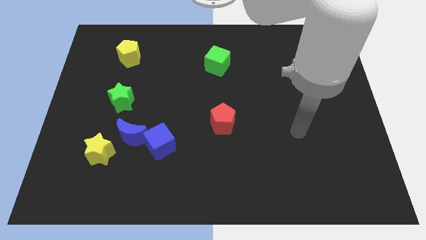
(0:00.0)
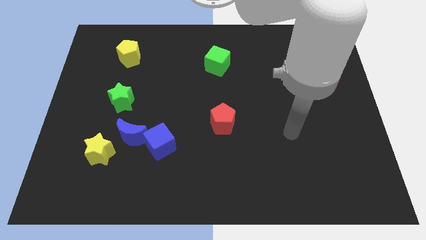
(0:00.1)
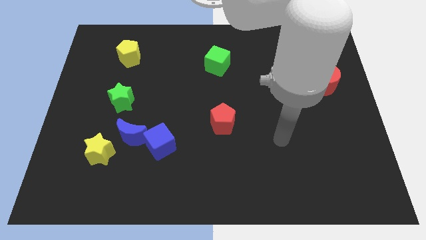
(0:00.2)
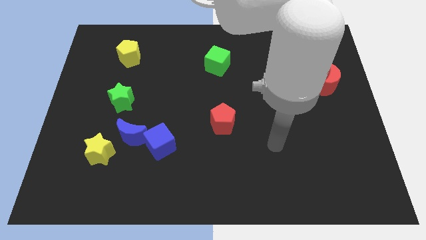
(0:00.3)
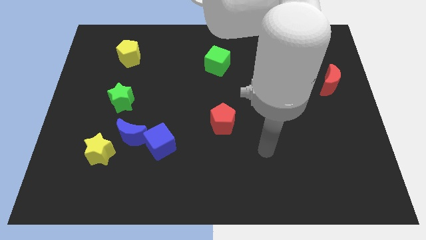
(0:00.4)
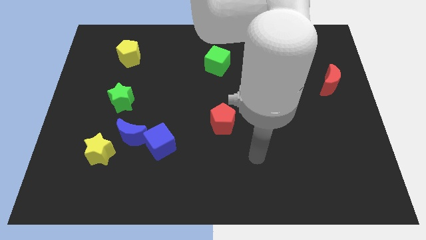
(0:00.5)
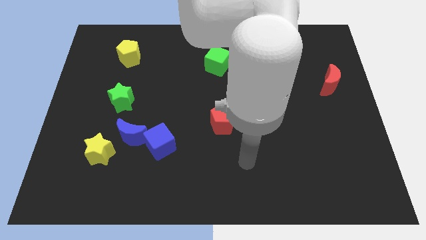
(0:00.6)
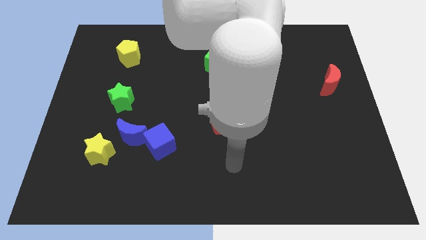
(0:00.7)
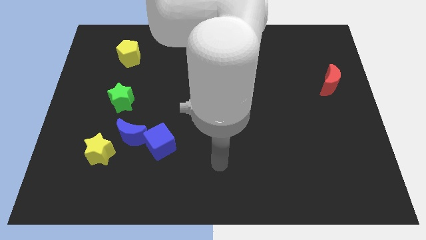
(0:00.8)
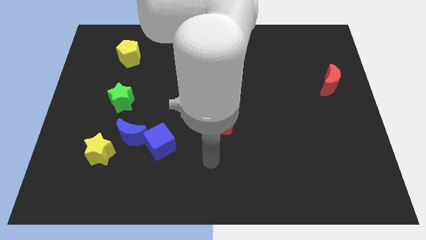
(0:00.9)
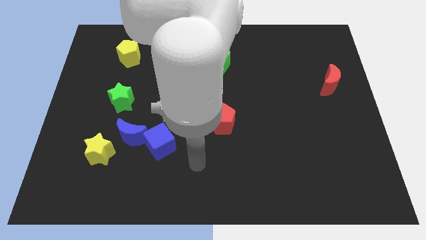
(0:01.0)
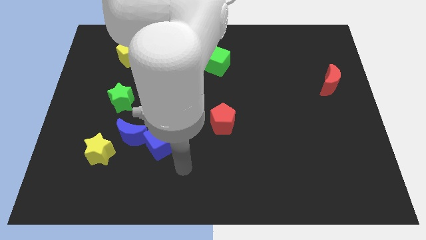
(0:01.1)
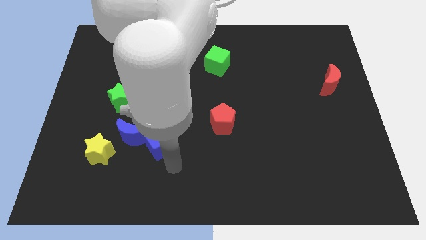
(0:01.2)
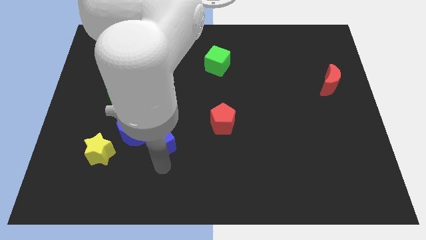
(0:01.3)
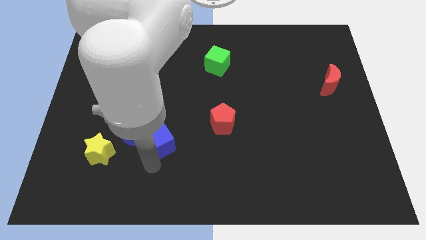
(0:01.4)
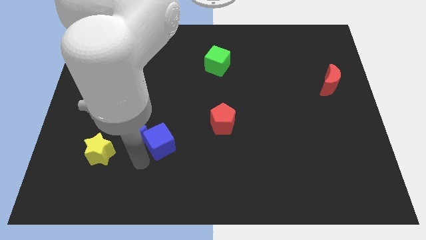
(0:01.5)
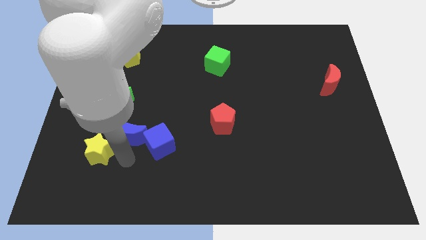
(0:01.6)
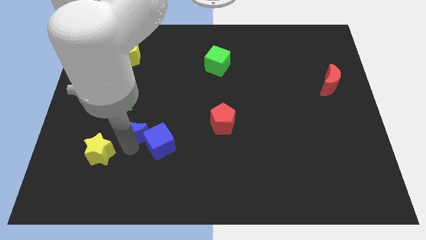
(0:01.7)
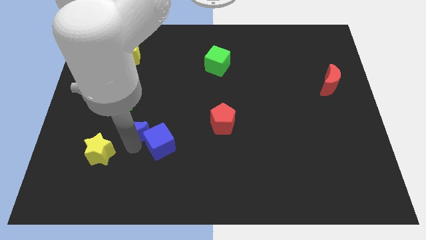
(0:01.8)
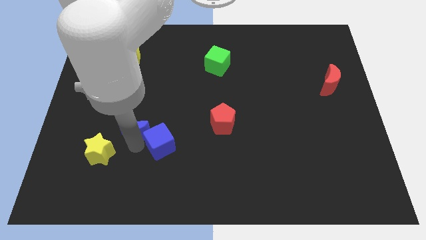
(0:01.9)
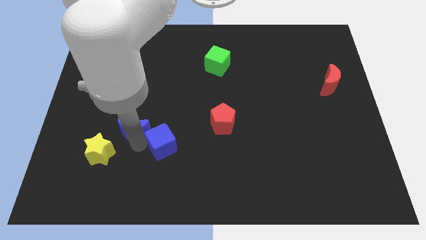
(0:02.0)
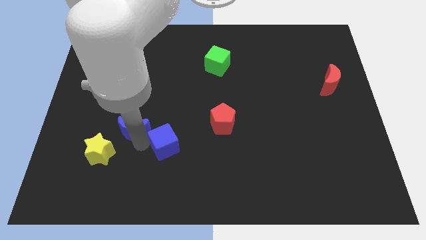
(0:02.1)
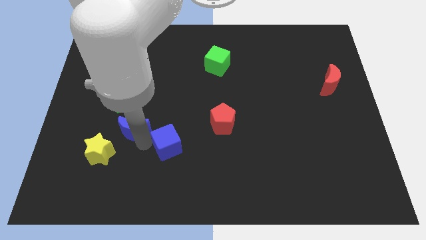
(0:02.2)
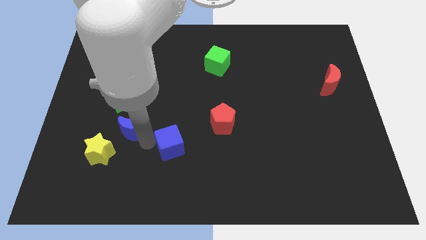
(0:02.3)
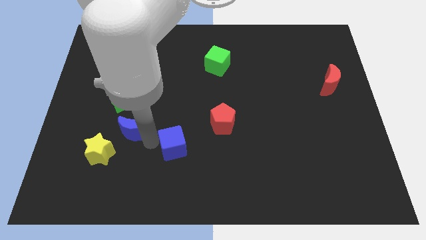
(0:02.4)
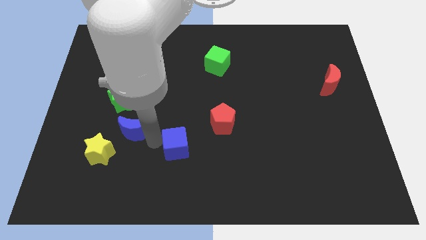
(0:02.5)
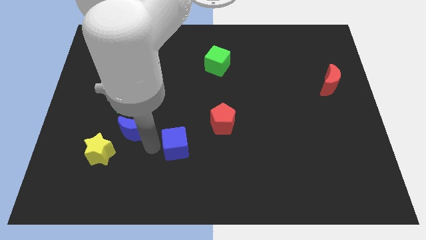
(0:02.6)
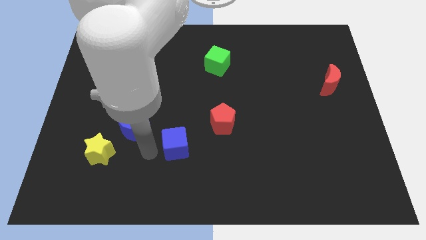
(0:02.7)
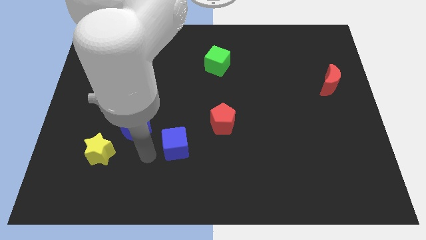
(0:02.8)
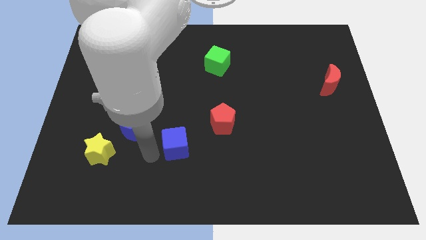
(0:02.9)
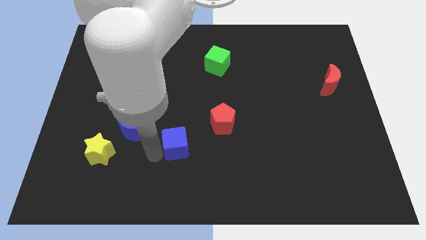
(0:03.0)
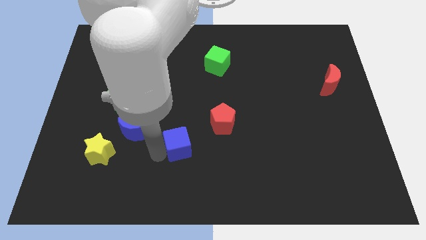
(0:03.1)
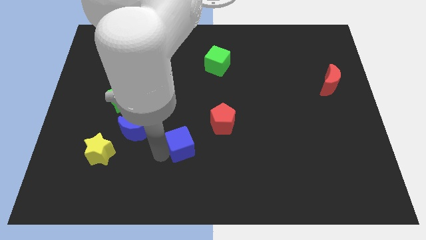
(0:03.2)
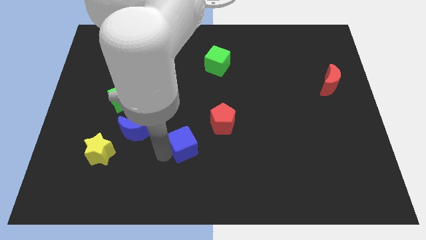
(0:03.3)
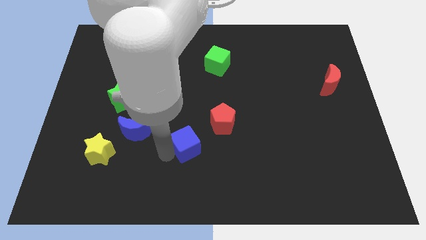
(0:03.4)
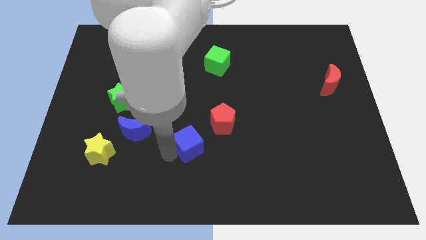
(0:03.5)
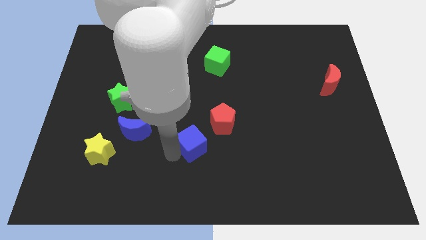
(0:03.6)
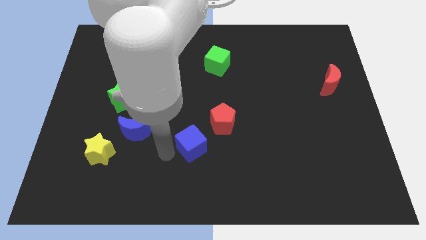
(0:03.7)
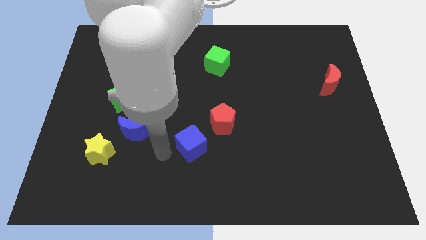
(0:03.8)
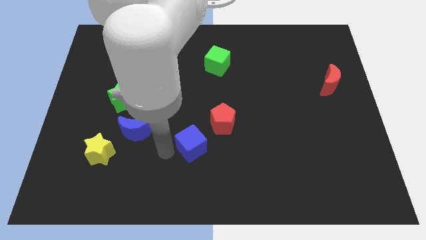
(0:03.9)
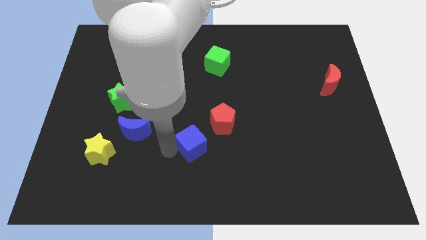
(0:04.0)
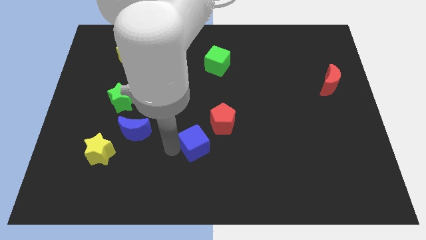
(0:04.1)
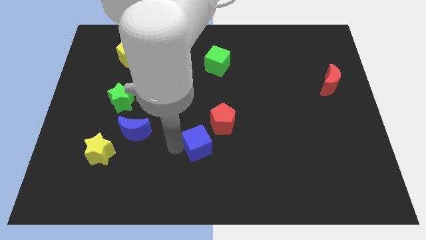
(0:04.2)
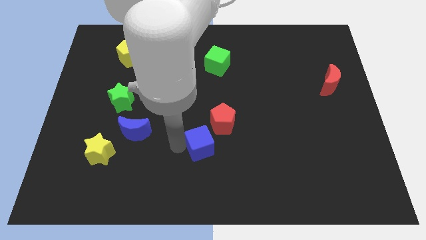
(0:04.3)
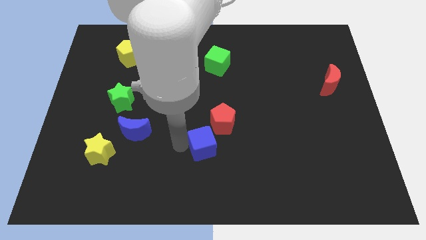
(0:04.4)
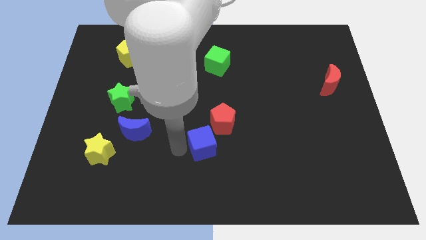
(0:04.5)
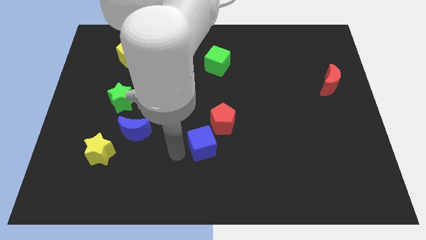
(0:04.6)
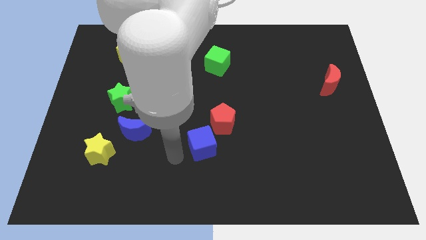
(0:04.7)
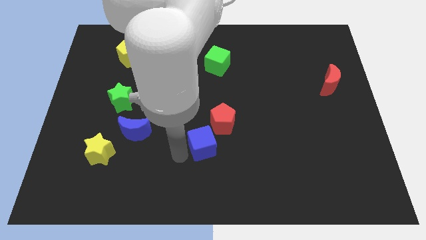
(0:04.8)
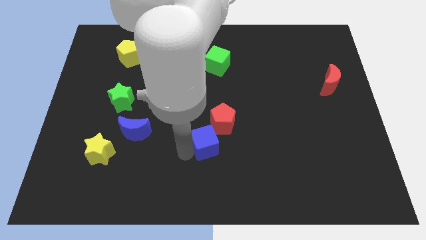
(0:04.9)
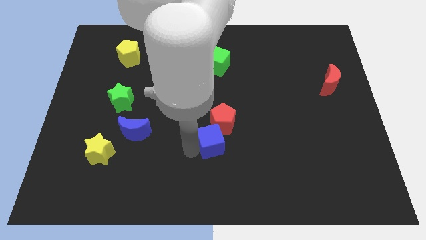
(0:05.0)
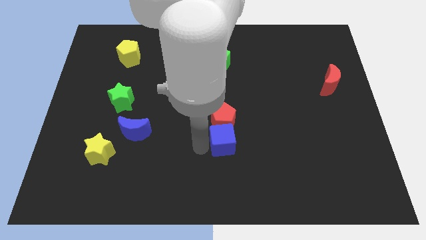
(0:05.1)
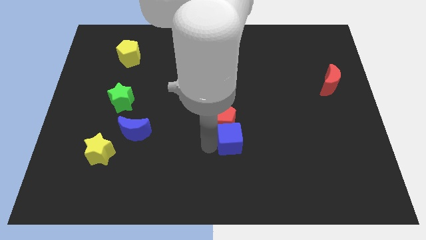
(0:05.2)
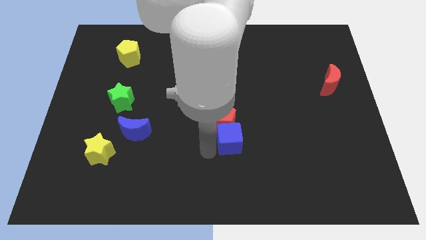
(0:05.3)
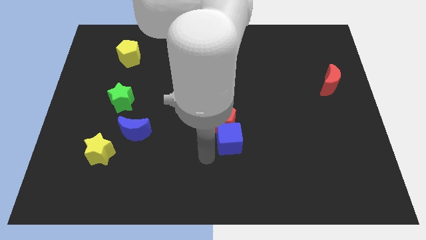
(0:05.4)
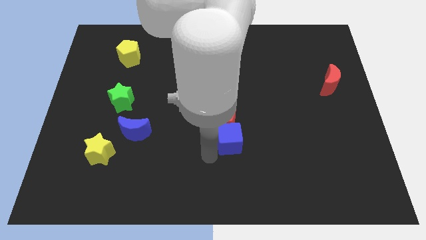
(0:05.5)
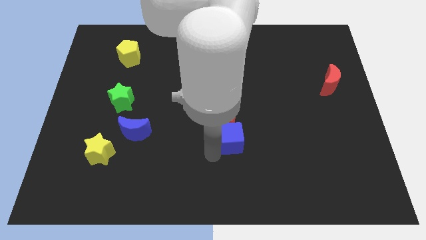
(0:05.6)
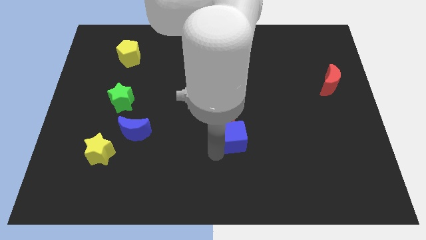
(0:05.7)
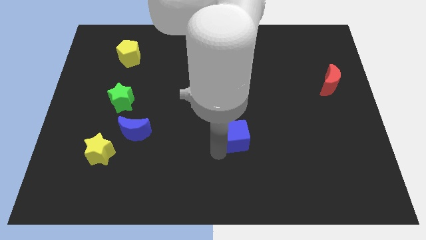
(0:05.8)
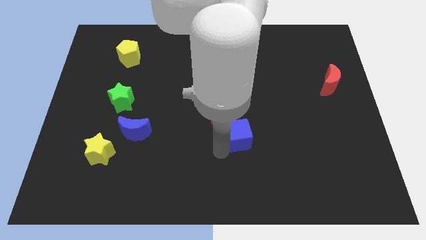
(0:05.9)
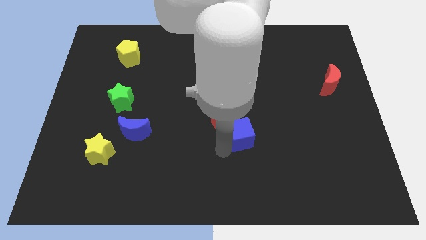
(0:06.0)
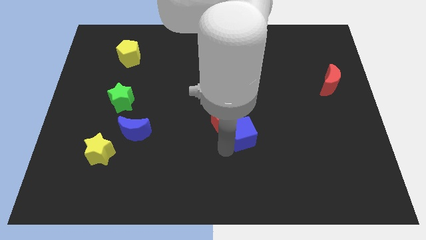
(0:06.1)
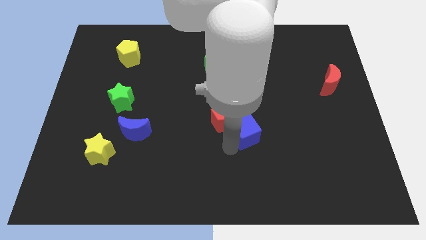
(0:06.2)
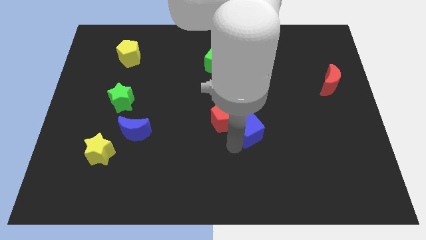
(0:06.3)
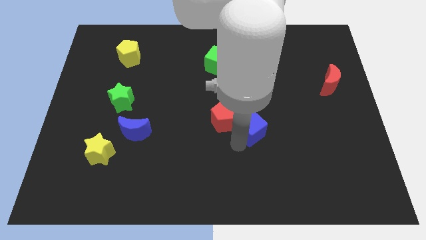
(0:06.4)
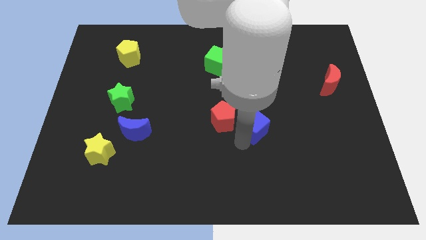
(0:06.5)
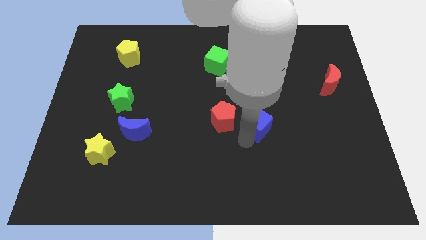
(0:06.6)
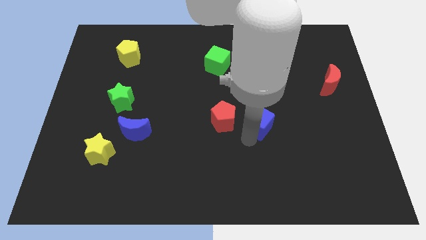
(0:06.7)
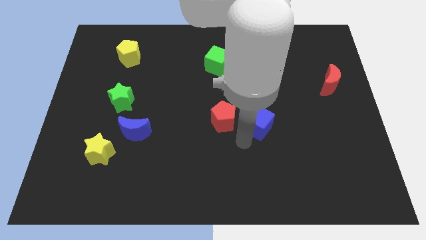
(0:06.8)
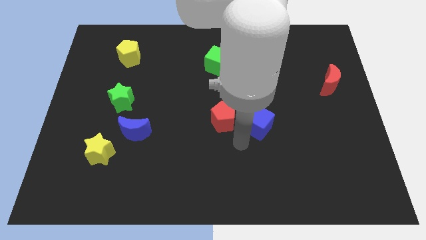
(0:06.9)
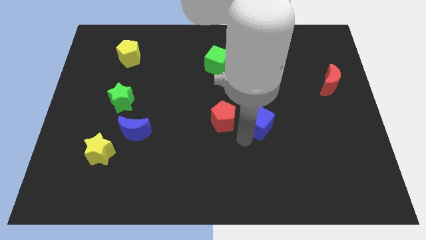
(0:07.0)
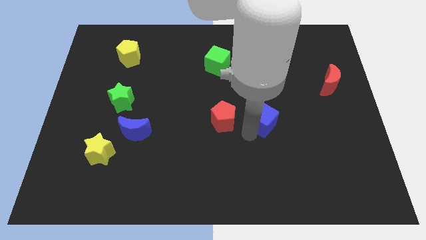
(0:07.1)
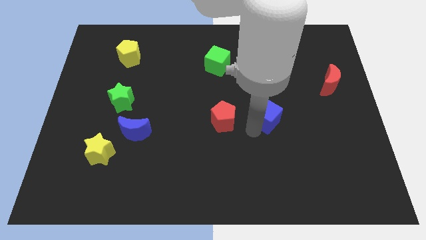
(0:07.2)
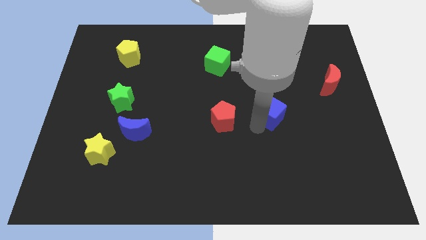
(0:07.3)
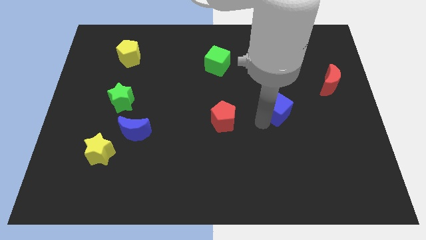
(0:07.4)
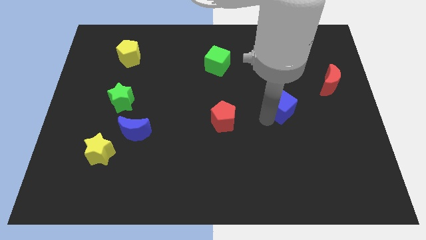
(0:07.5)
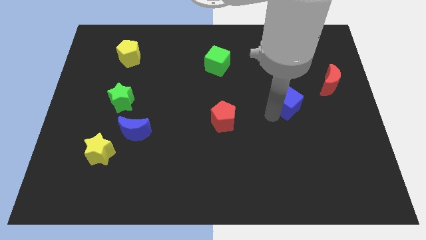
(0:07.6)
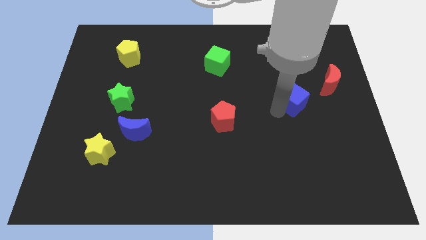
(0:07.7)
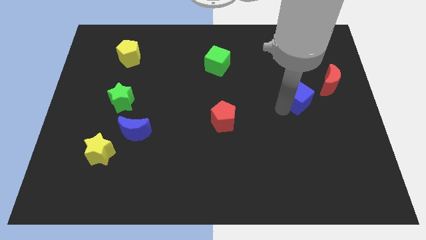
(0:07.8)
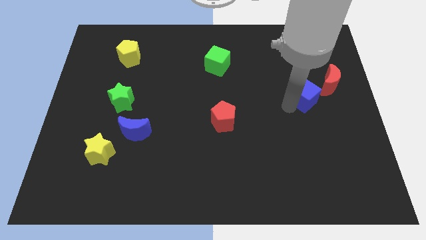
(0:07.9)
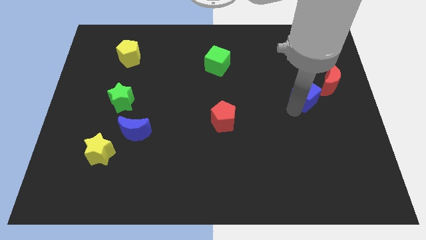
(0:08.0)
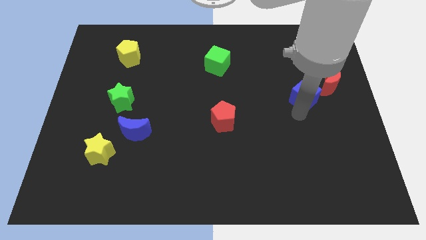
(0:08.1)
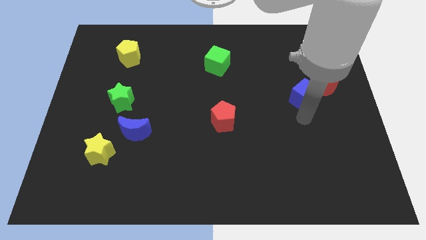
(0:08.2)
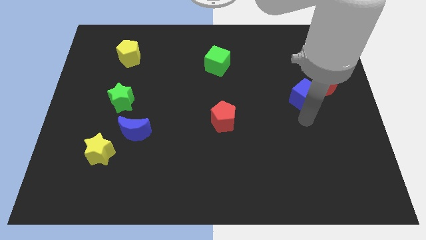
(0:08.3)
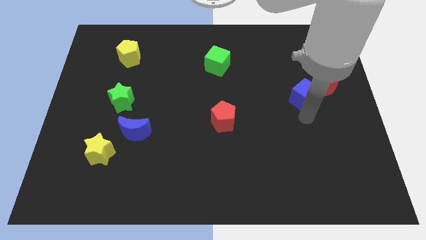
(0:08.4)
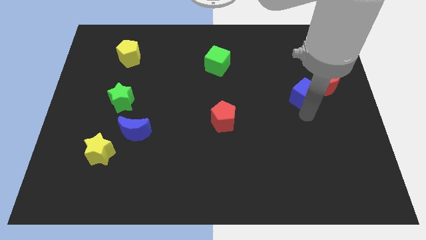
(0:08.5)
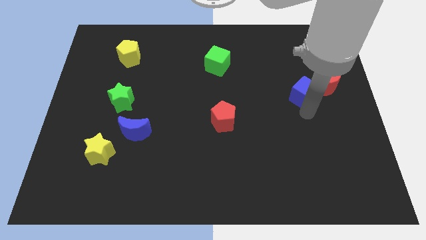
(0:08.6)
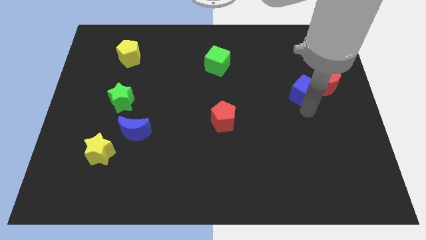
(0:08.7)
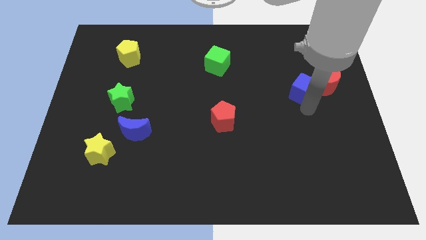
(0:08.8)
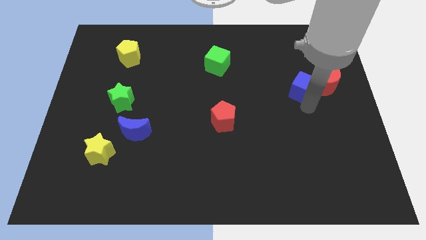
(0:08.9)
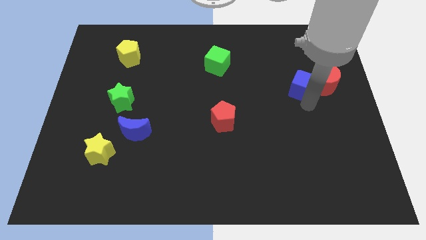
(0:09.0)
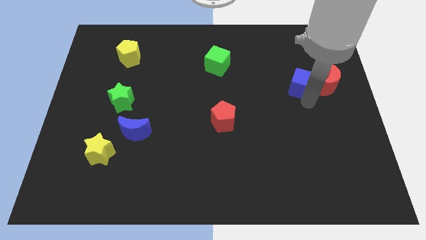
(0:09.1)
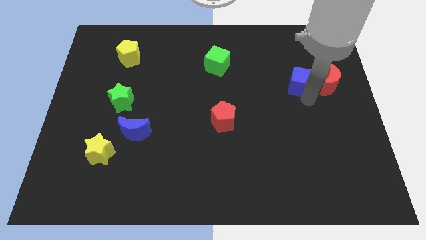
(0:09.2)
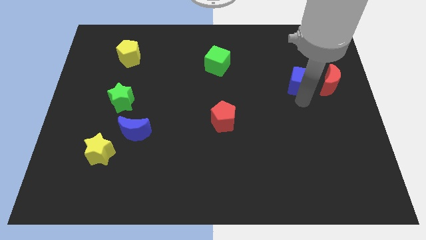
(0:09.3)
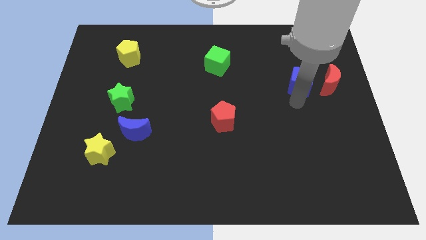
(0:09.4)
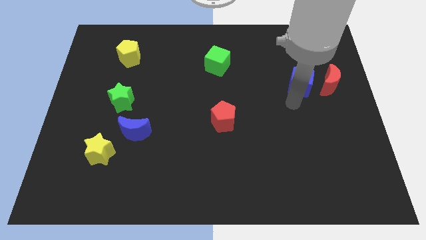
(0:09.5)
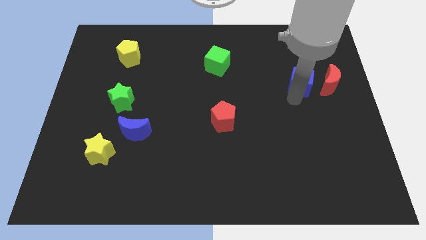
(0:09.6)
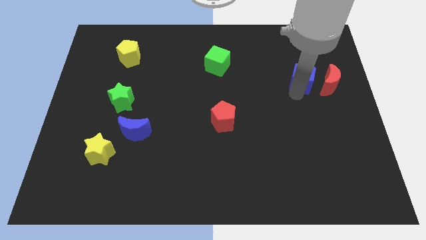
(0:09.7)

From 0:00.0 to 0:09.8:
put the blue cube diagonally up and to the left of the red moon
